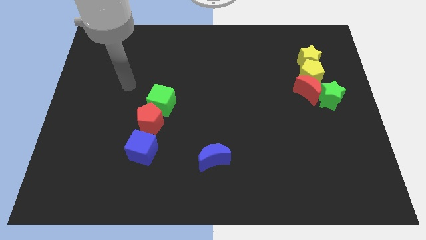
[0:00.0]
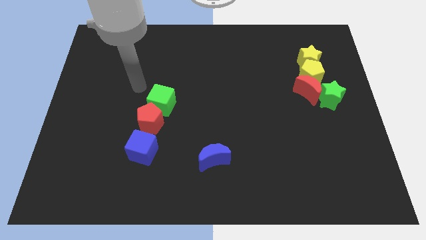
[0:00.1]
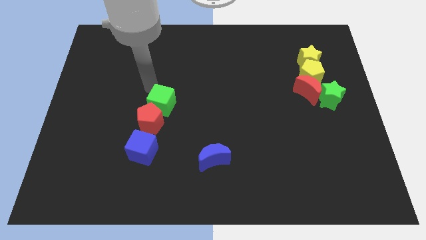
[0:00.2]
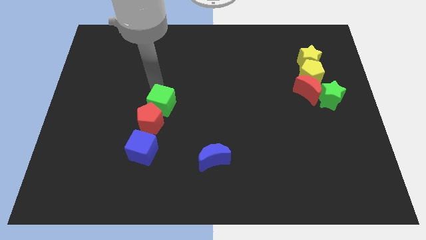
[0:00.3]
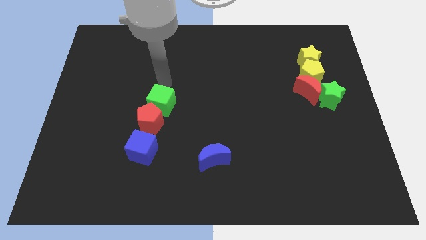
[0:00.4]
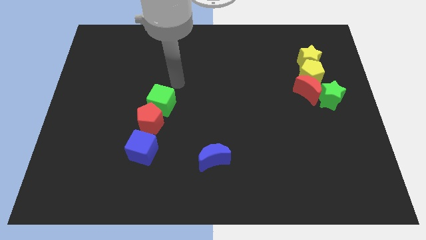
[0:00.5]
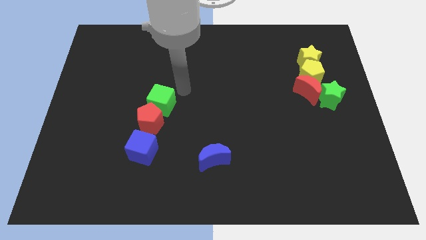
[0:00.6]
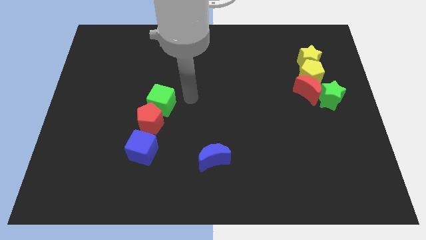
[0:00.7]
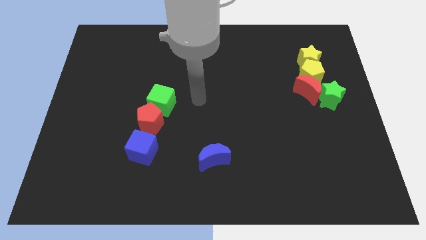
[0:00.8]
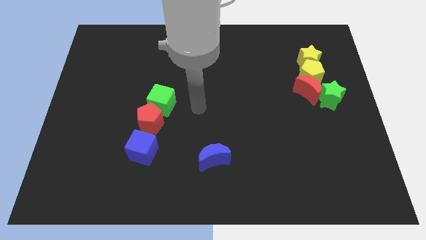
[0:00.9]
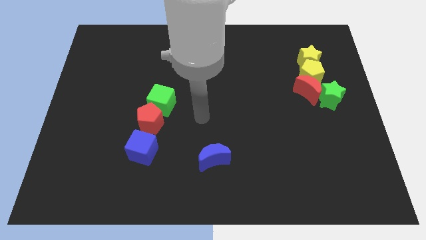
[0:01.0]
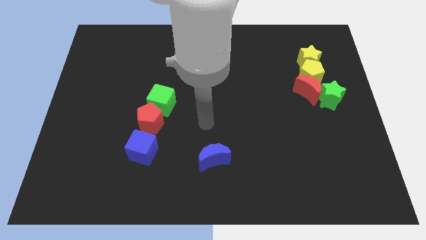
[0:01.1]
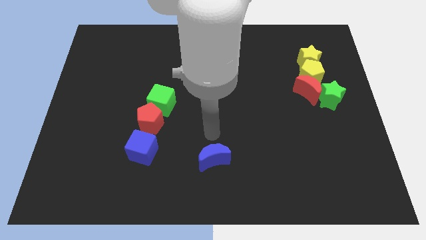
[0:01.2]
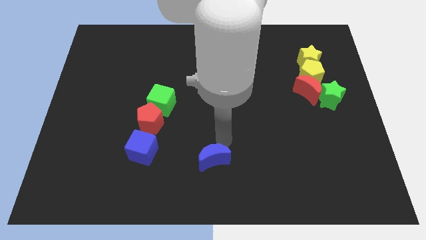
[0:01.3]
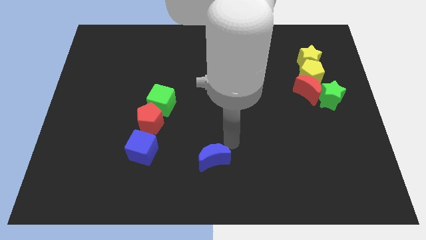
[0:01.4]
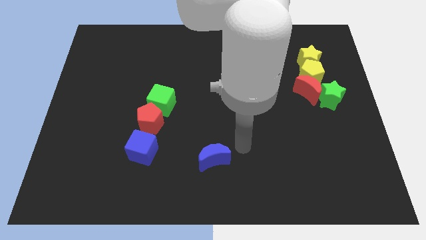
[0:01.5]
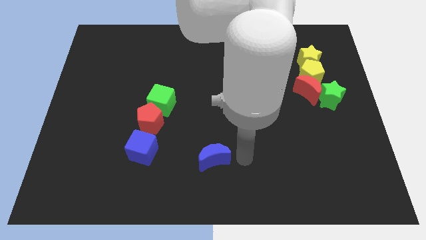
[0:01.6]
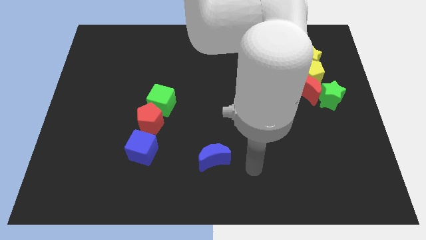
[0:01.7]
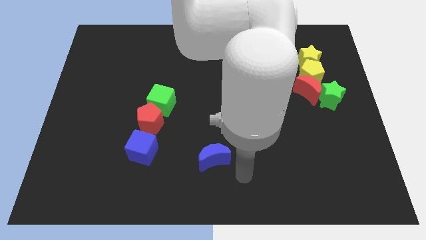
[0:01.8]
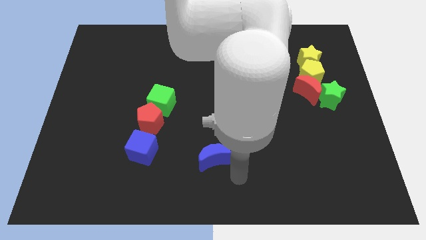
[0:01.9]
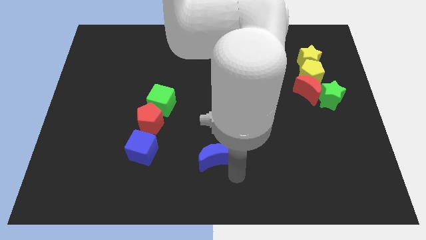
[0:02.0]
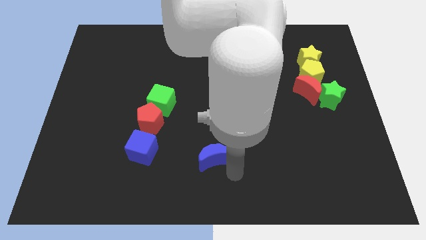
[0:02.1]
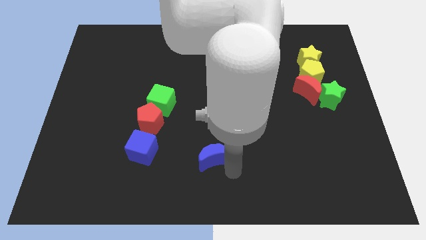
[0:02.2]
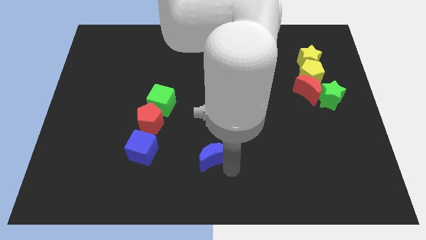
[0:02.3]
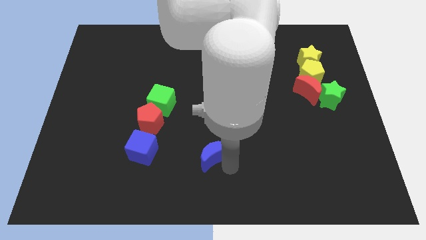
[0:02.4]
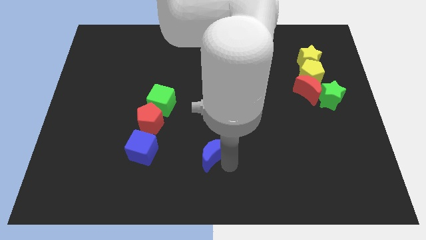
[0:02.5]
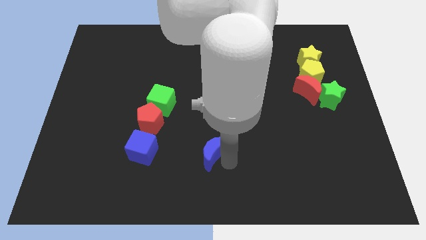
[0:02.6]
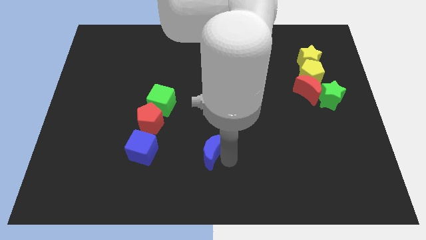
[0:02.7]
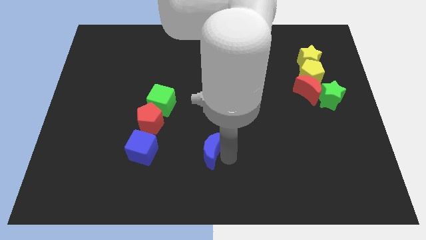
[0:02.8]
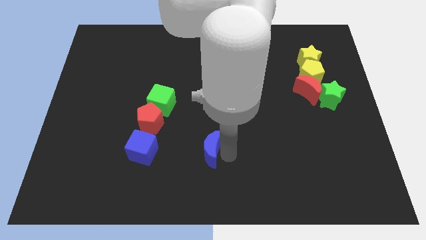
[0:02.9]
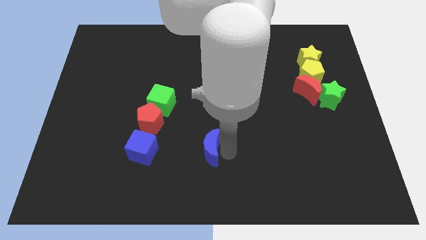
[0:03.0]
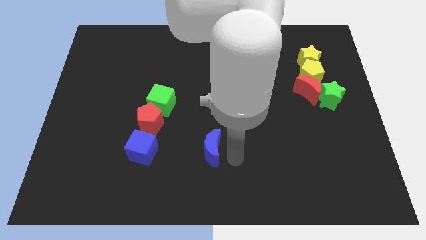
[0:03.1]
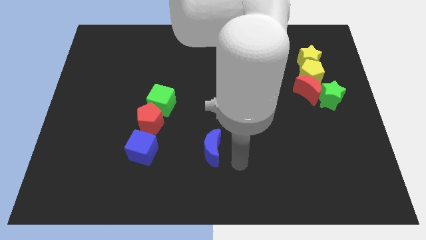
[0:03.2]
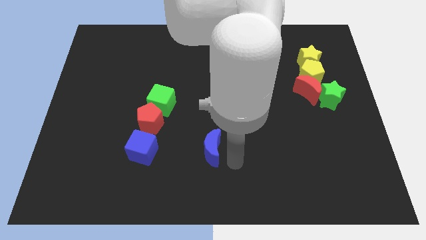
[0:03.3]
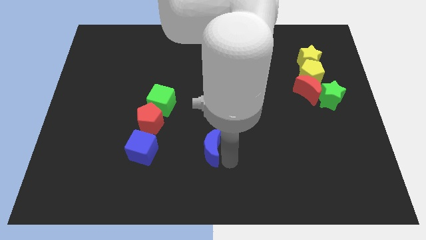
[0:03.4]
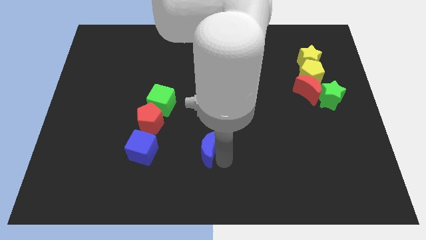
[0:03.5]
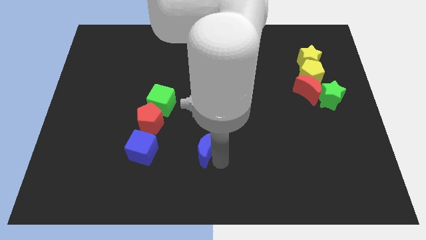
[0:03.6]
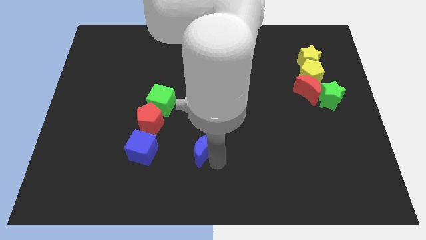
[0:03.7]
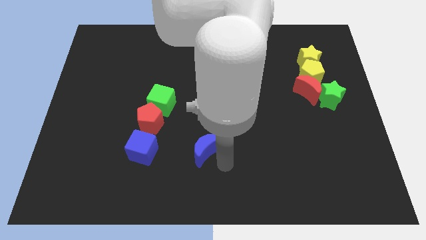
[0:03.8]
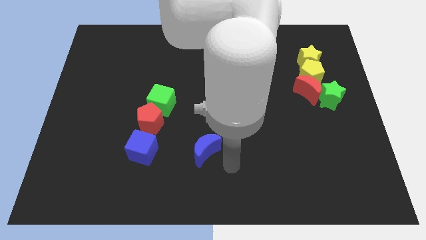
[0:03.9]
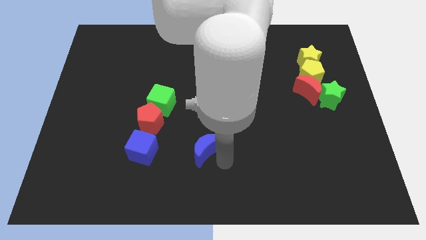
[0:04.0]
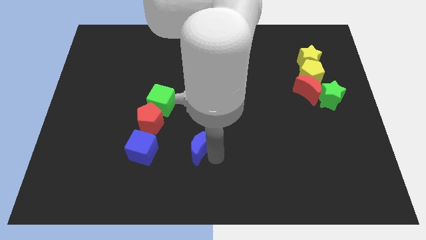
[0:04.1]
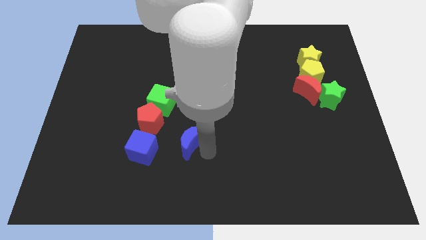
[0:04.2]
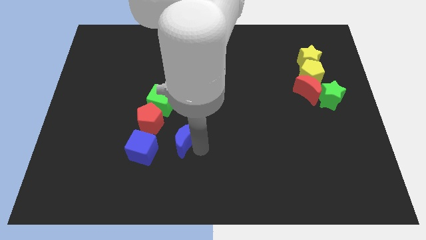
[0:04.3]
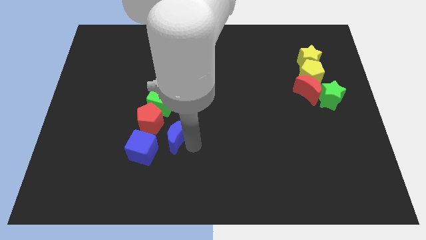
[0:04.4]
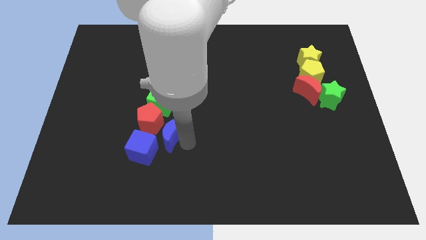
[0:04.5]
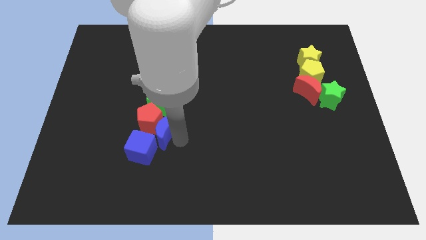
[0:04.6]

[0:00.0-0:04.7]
slide the blue moon close to the red pentagon

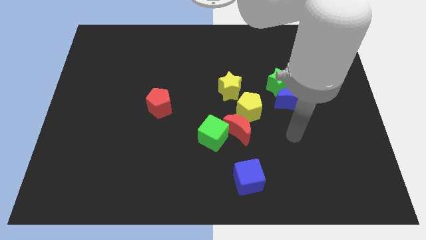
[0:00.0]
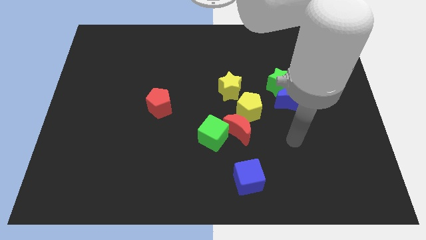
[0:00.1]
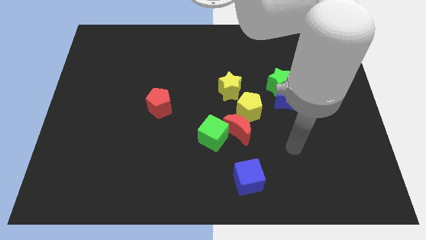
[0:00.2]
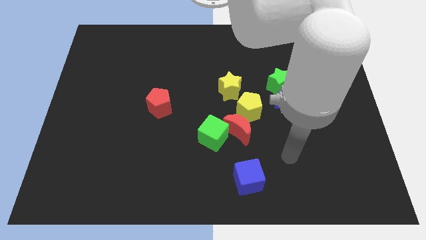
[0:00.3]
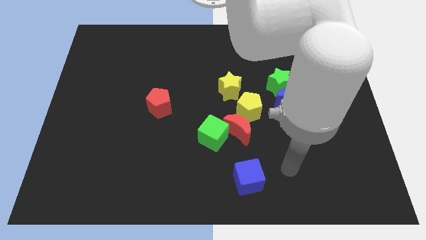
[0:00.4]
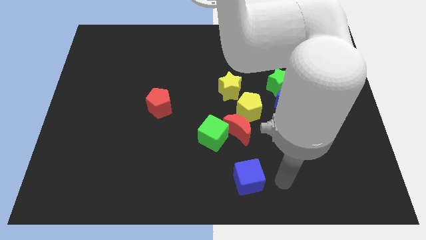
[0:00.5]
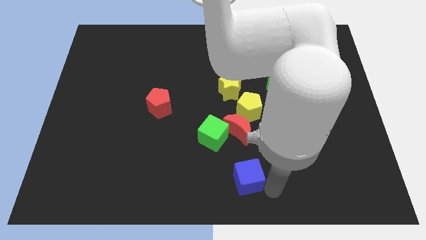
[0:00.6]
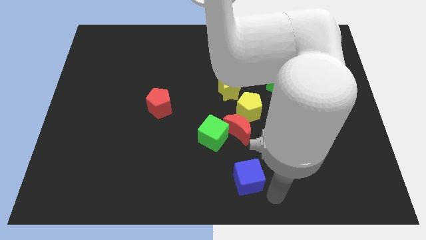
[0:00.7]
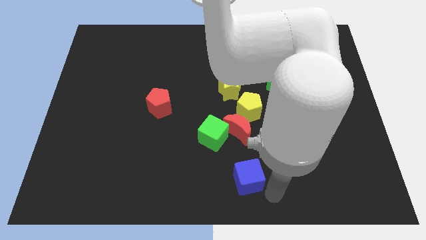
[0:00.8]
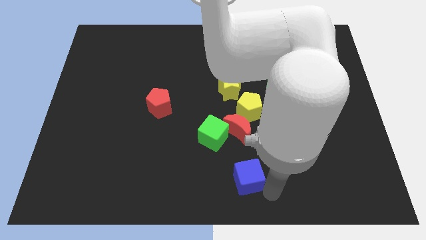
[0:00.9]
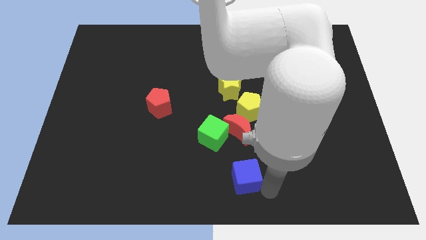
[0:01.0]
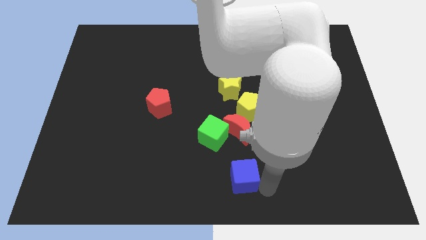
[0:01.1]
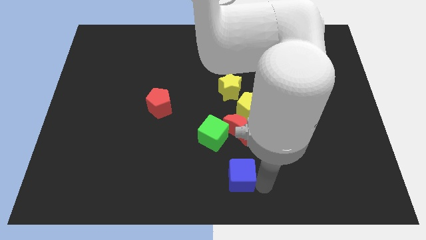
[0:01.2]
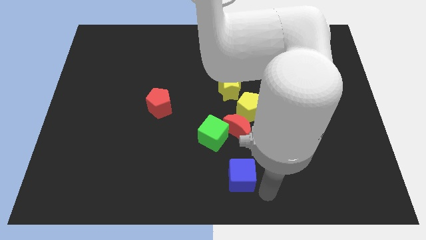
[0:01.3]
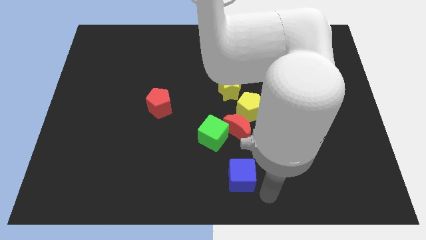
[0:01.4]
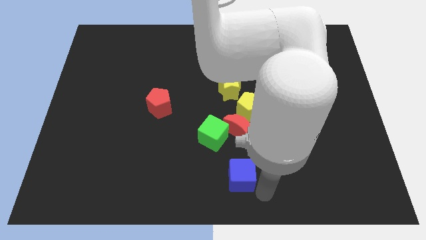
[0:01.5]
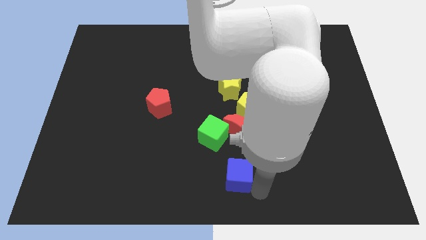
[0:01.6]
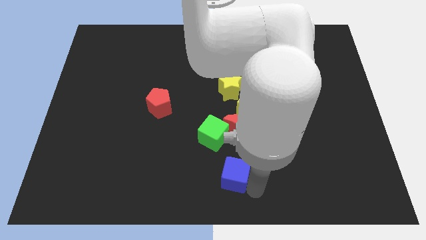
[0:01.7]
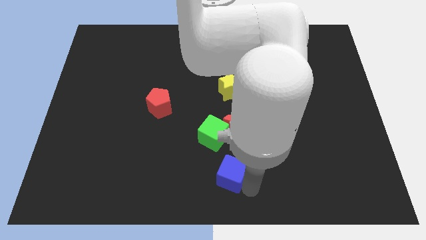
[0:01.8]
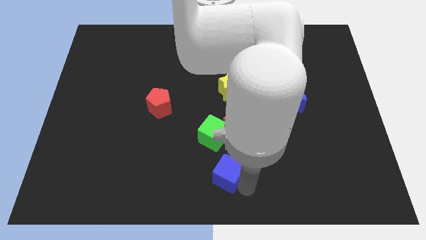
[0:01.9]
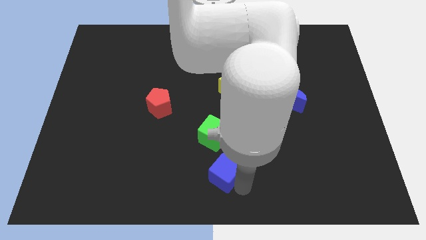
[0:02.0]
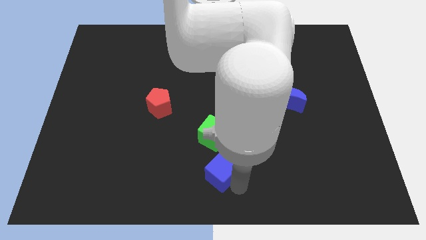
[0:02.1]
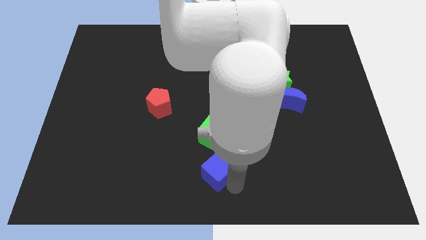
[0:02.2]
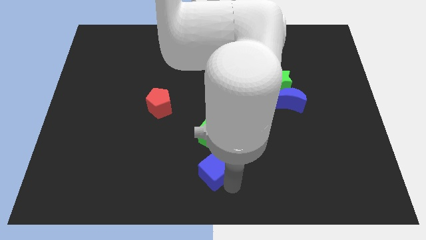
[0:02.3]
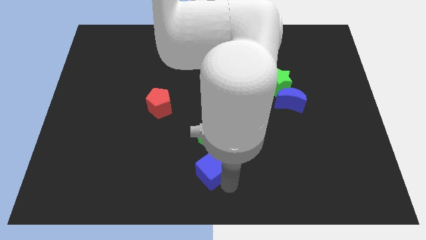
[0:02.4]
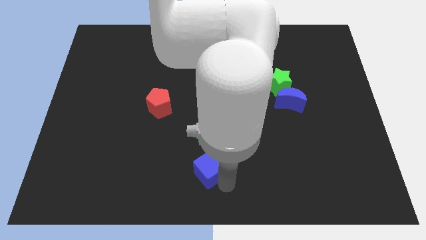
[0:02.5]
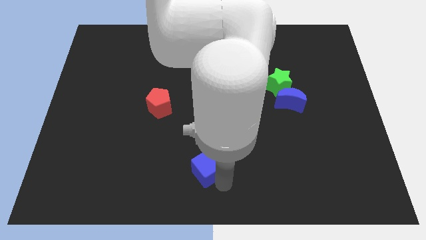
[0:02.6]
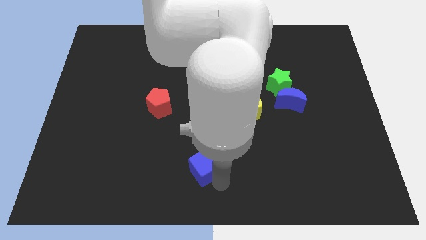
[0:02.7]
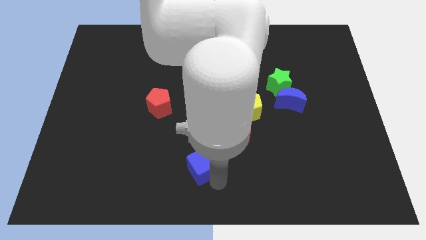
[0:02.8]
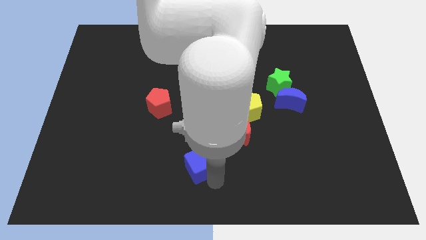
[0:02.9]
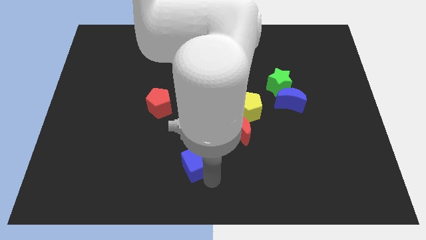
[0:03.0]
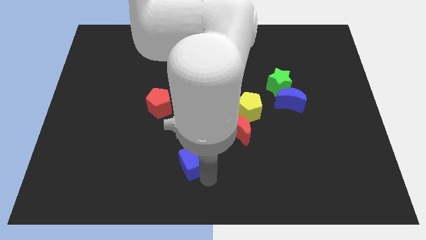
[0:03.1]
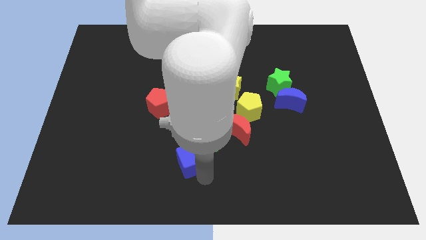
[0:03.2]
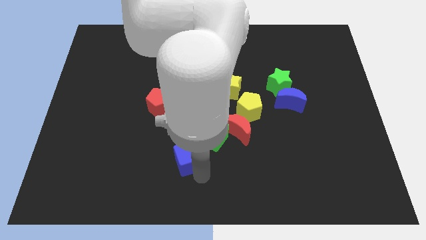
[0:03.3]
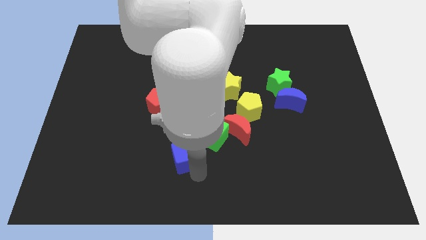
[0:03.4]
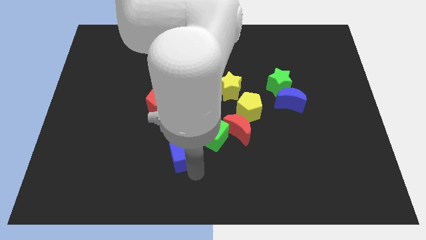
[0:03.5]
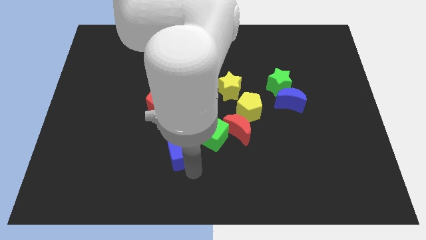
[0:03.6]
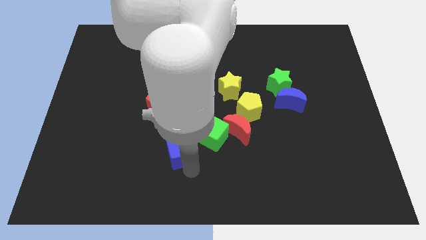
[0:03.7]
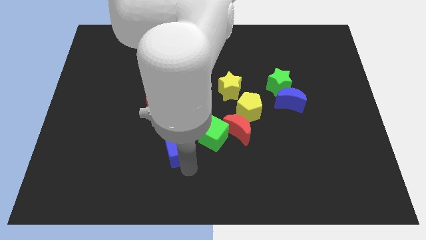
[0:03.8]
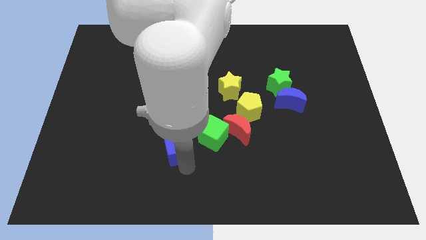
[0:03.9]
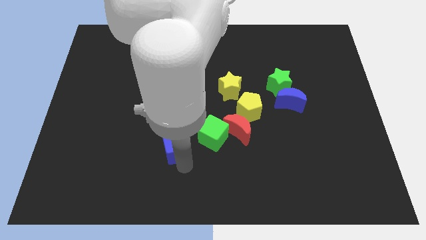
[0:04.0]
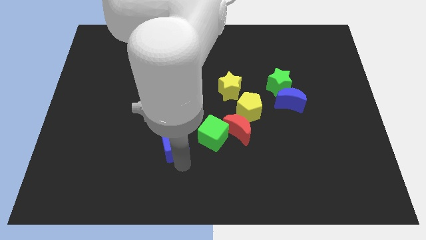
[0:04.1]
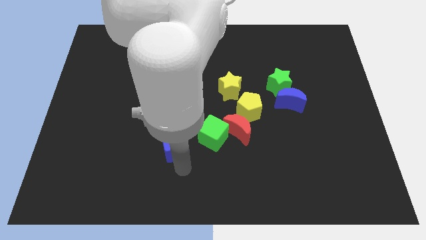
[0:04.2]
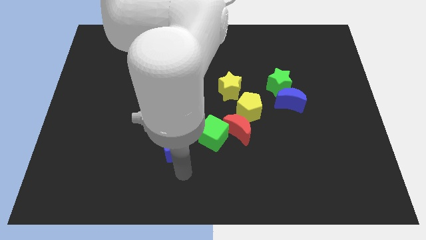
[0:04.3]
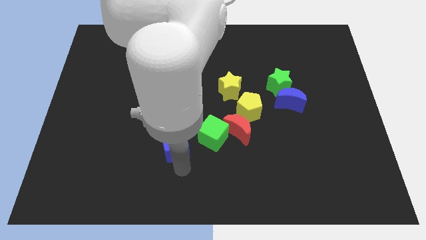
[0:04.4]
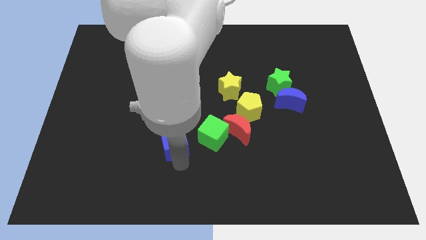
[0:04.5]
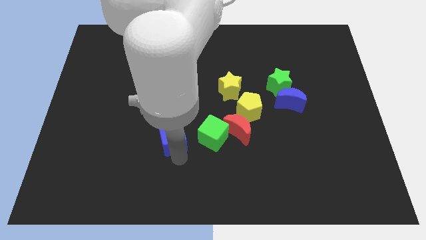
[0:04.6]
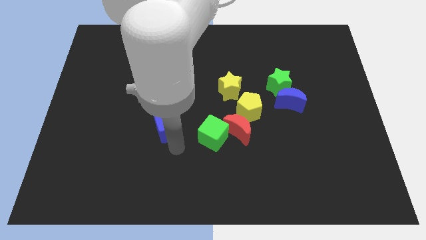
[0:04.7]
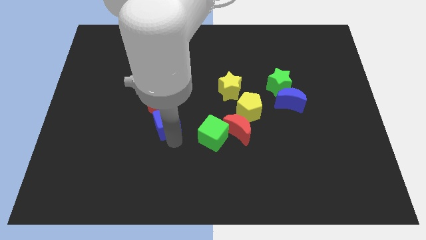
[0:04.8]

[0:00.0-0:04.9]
push the blue cube next to the red pentagon
